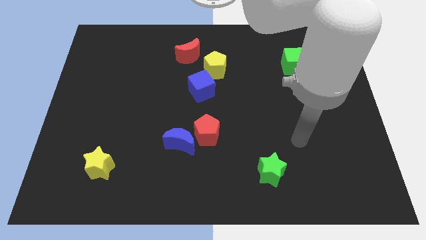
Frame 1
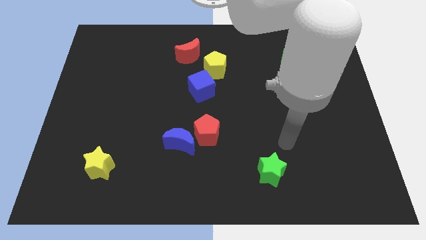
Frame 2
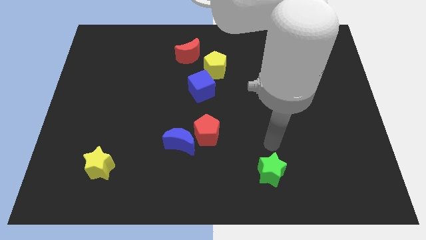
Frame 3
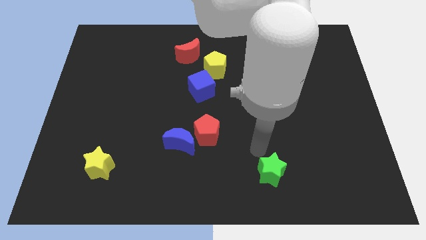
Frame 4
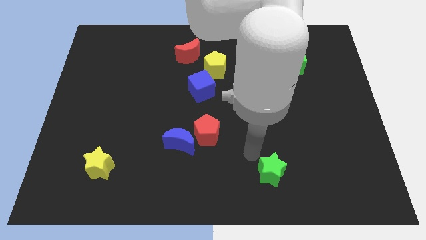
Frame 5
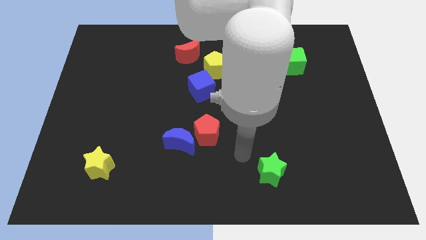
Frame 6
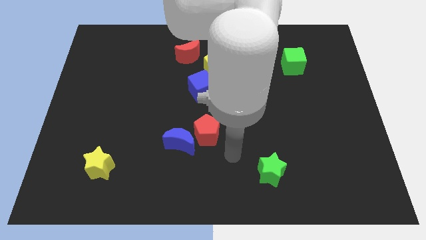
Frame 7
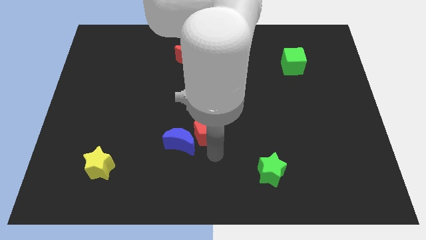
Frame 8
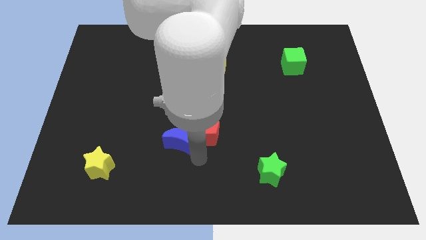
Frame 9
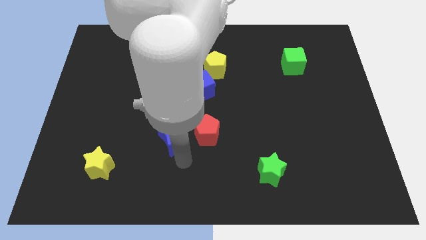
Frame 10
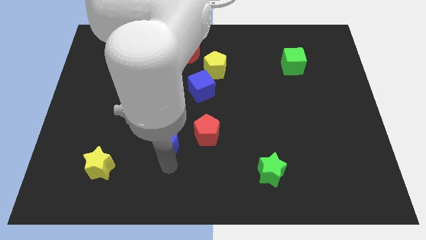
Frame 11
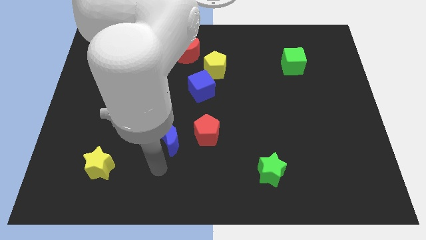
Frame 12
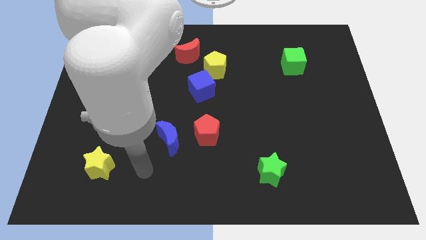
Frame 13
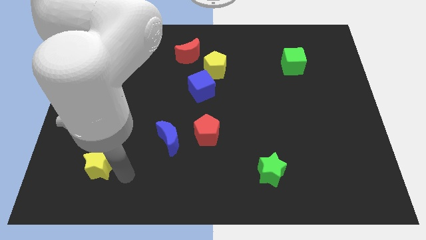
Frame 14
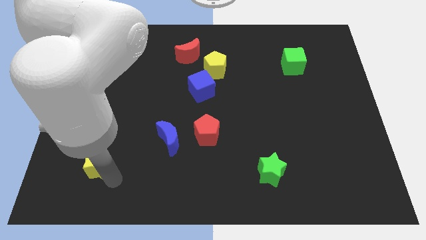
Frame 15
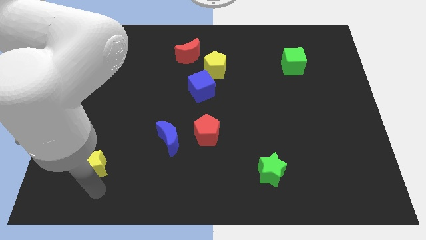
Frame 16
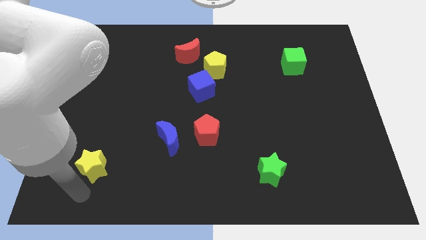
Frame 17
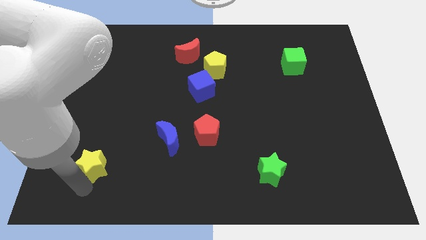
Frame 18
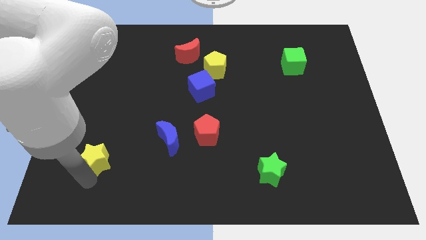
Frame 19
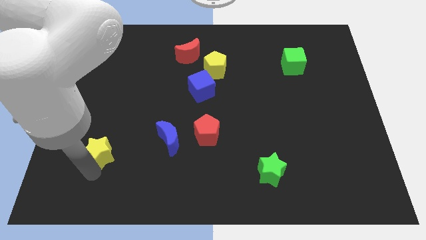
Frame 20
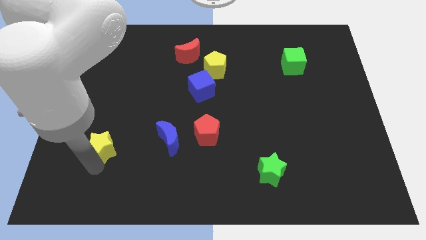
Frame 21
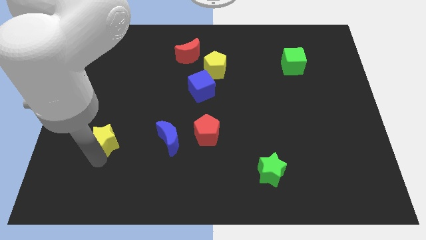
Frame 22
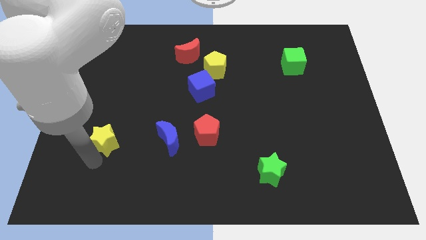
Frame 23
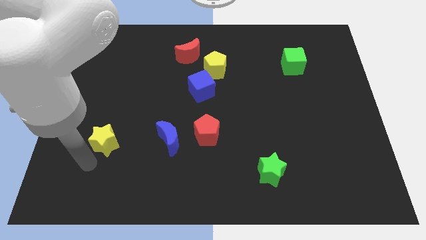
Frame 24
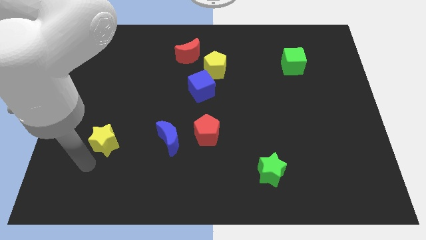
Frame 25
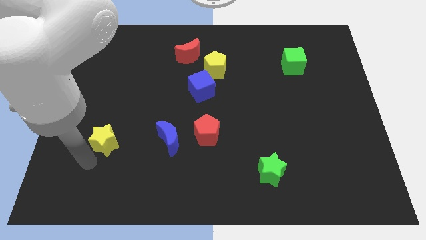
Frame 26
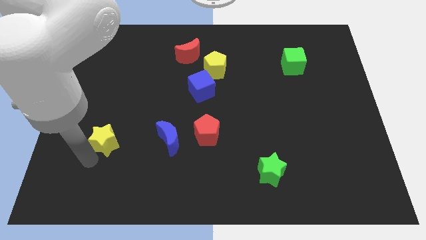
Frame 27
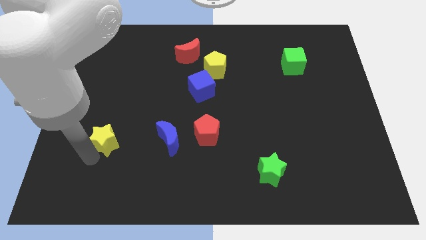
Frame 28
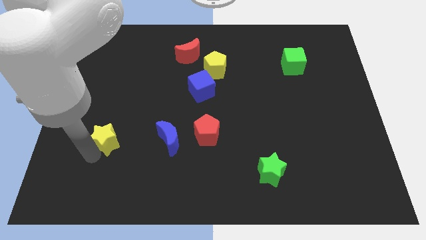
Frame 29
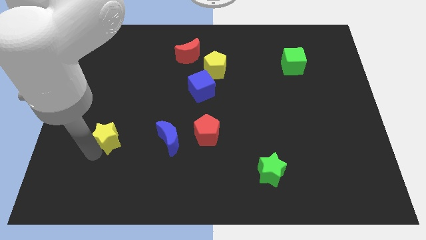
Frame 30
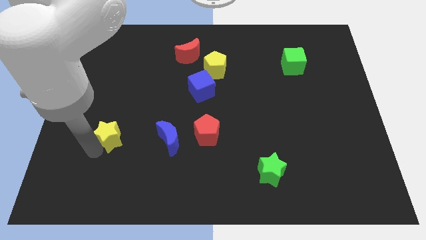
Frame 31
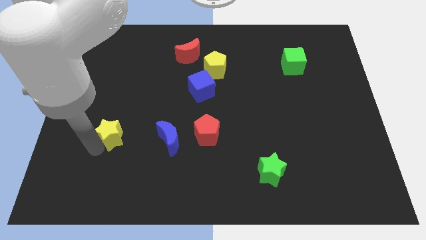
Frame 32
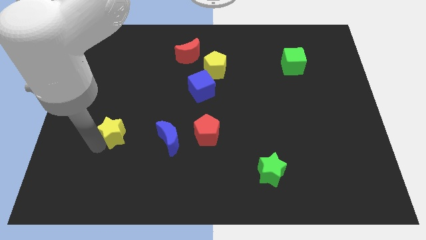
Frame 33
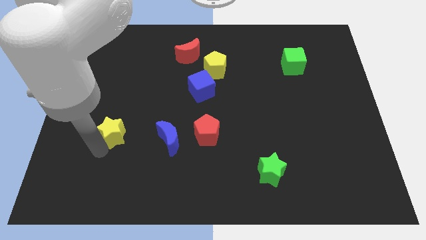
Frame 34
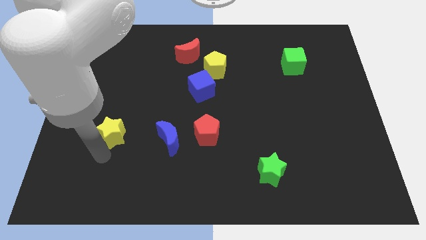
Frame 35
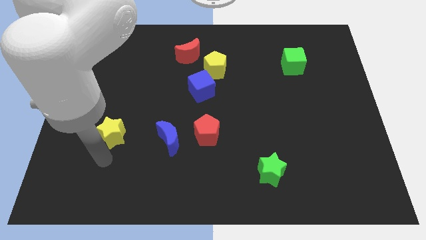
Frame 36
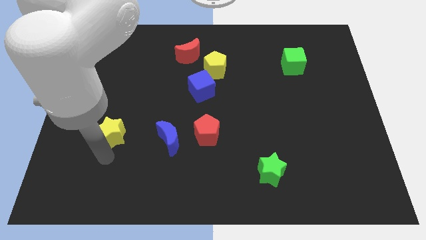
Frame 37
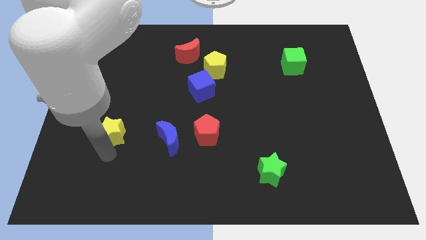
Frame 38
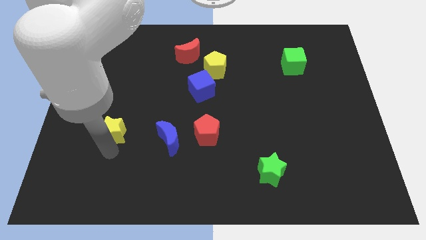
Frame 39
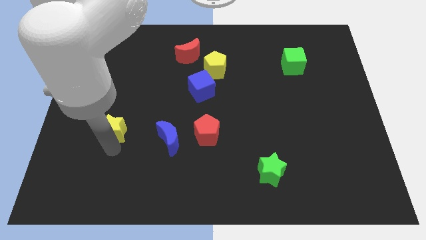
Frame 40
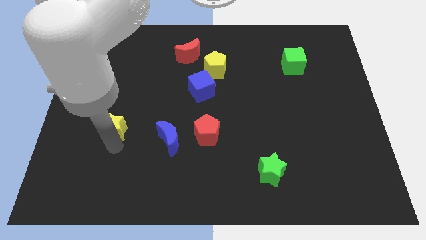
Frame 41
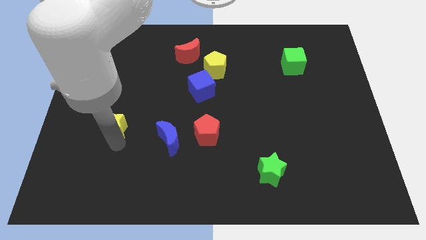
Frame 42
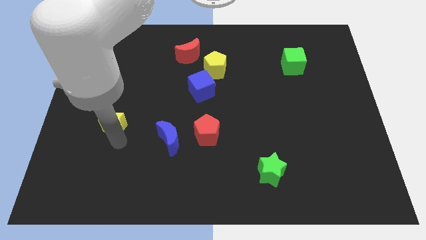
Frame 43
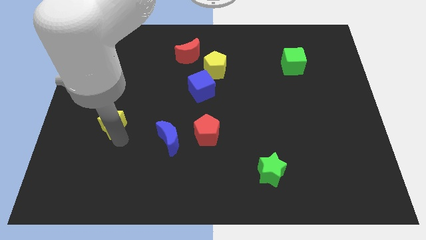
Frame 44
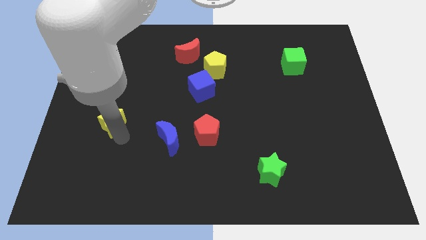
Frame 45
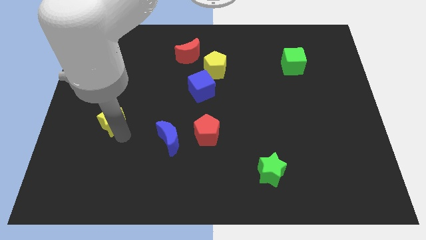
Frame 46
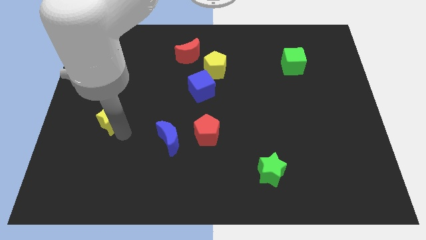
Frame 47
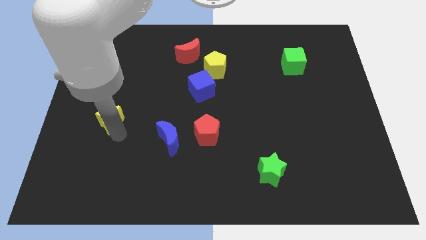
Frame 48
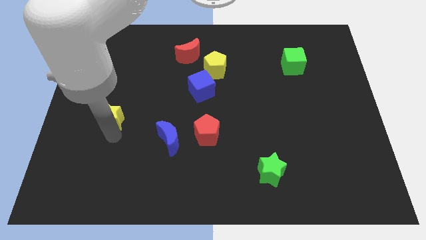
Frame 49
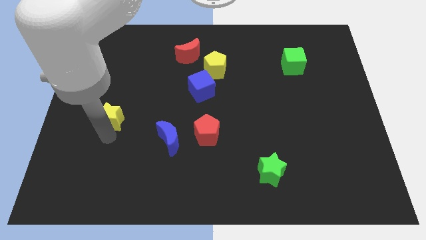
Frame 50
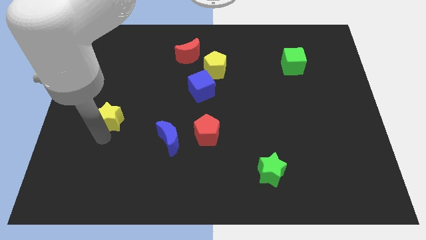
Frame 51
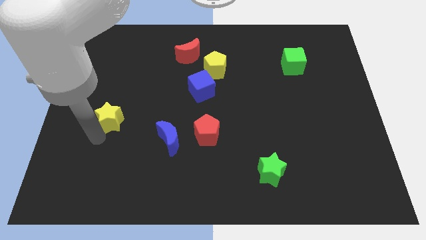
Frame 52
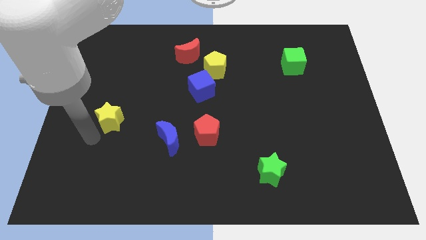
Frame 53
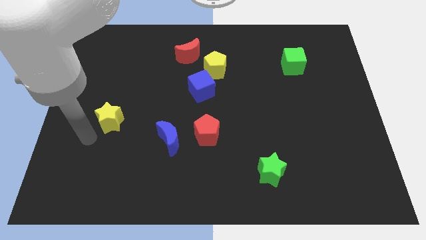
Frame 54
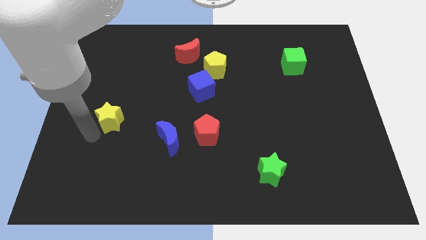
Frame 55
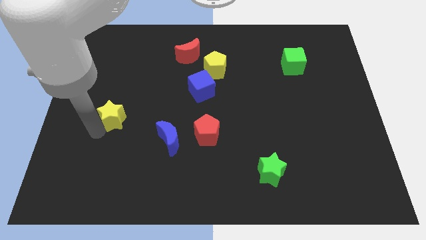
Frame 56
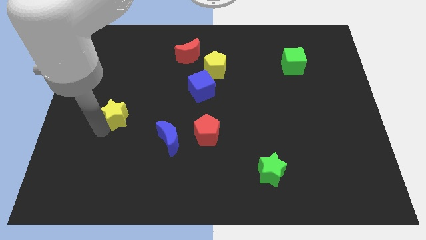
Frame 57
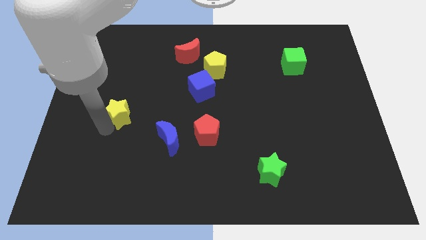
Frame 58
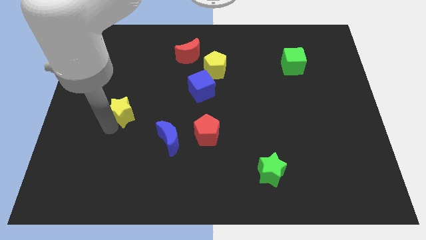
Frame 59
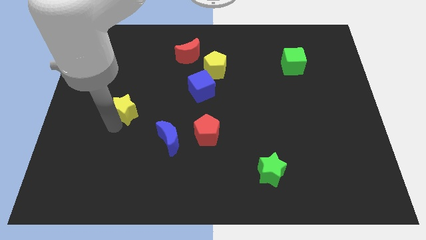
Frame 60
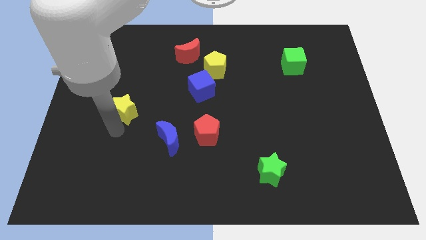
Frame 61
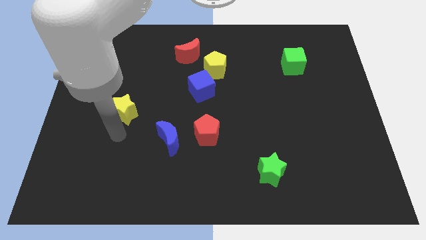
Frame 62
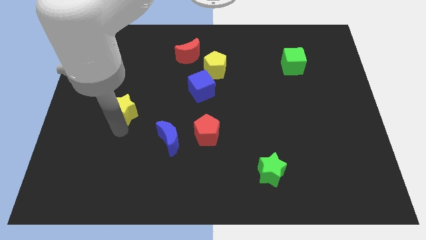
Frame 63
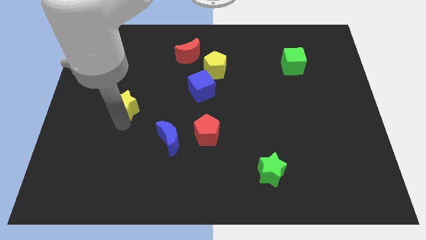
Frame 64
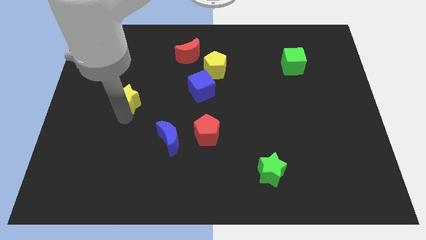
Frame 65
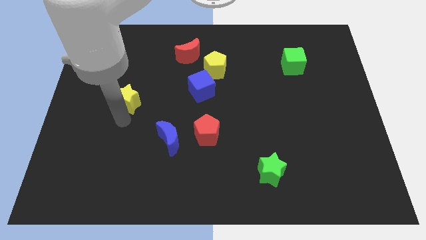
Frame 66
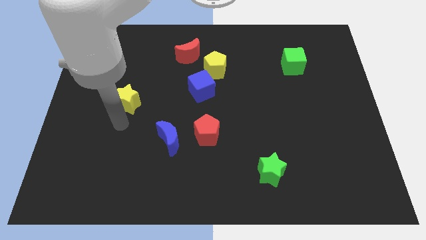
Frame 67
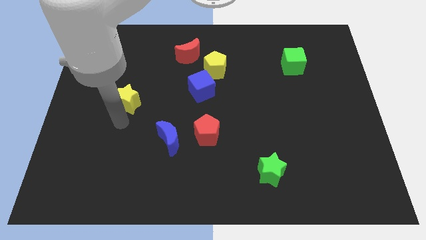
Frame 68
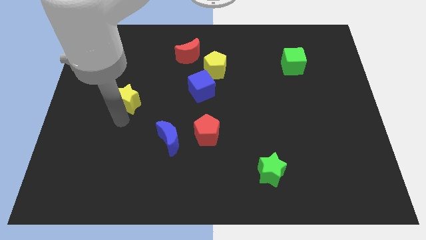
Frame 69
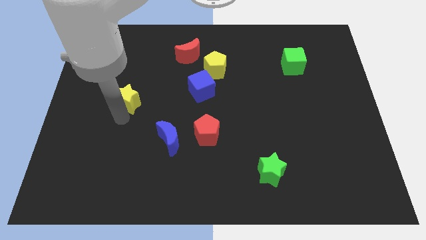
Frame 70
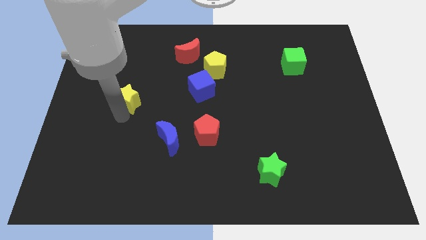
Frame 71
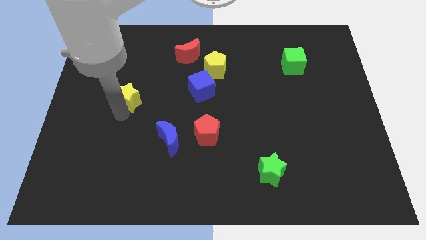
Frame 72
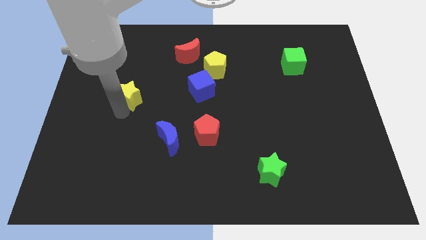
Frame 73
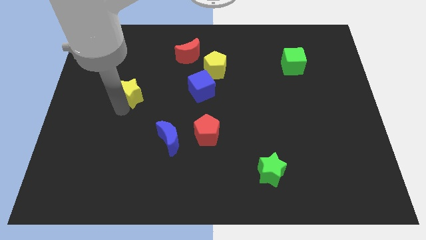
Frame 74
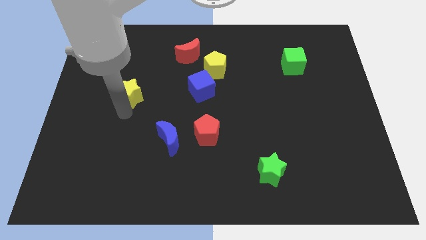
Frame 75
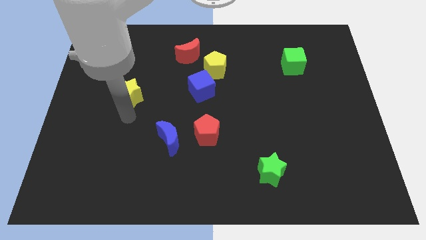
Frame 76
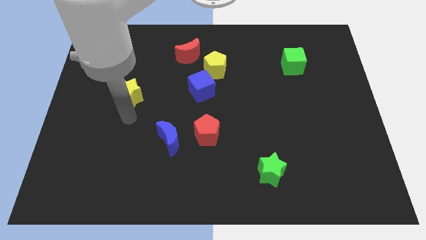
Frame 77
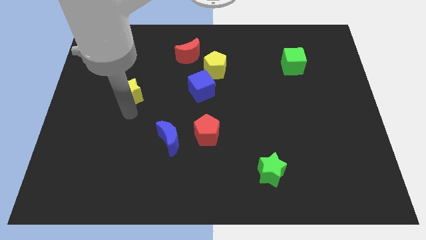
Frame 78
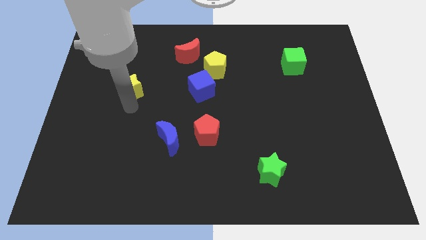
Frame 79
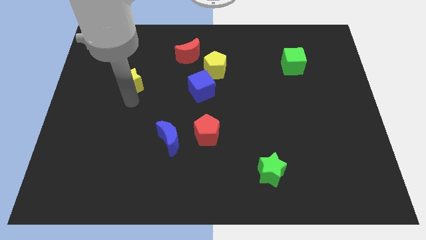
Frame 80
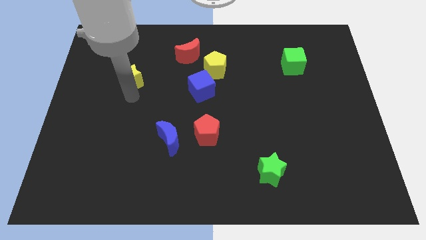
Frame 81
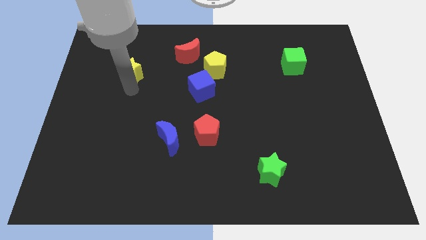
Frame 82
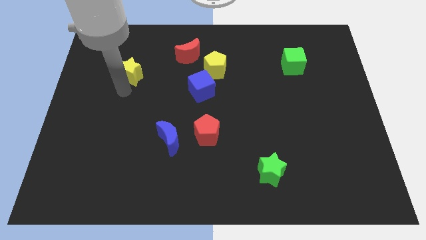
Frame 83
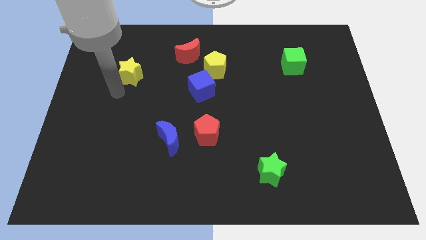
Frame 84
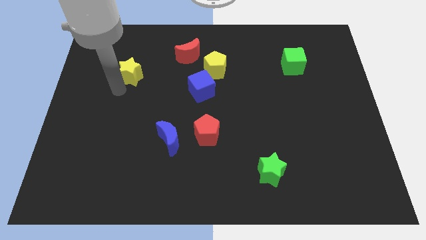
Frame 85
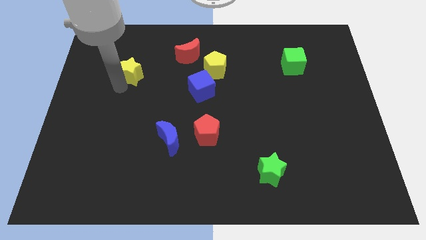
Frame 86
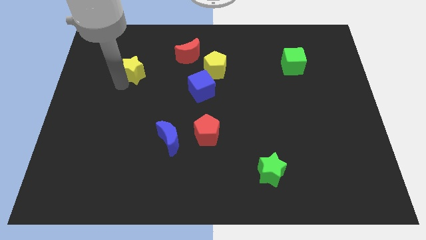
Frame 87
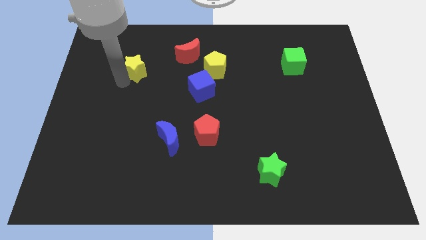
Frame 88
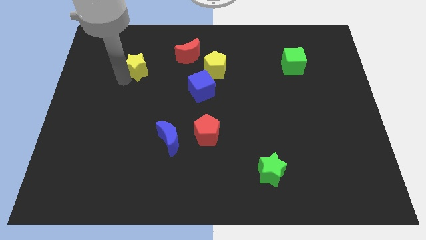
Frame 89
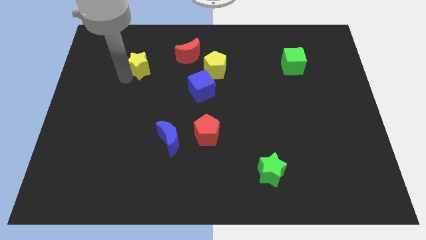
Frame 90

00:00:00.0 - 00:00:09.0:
move the yellow star just left of the red moon
